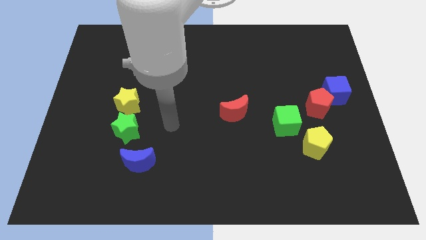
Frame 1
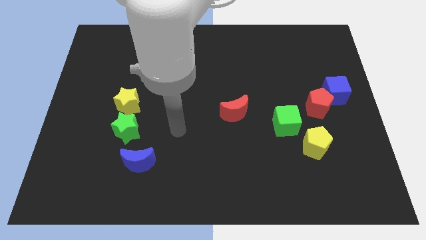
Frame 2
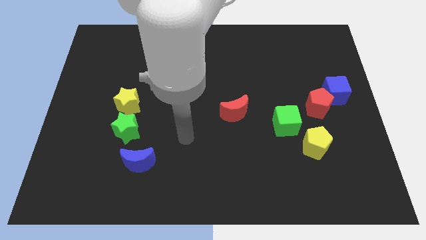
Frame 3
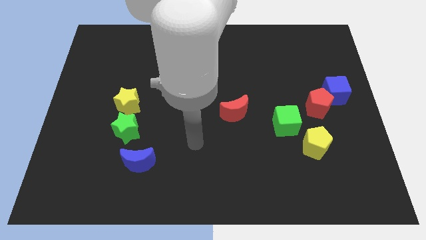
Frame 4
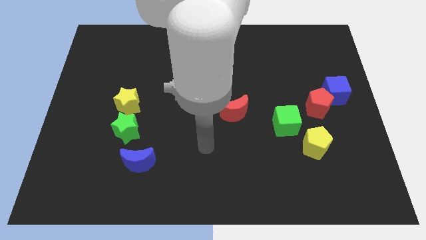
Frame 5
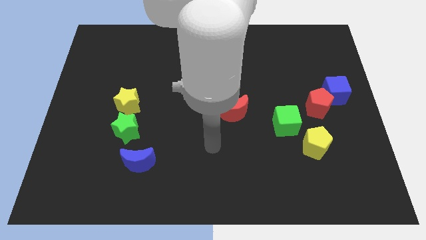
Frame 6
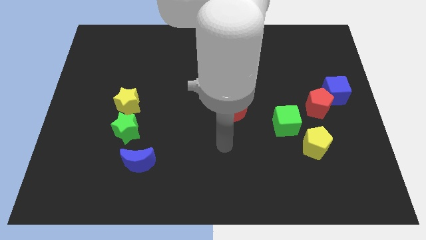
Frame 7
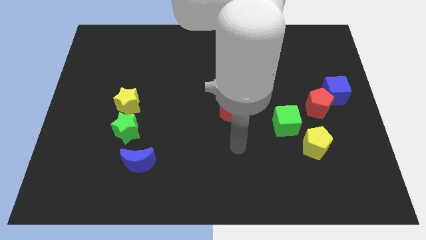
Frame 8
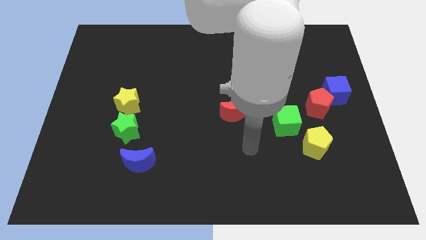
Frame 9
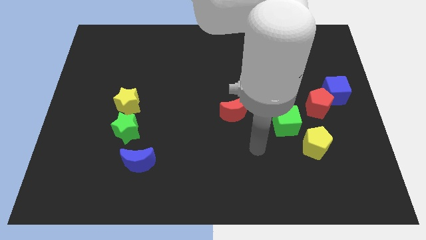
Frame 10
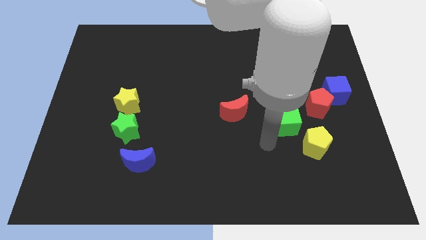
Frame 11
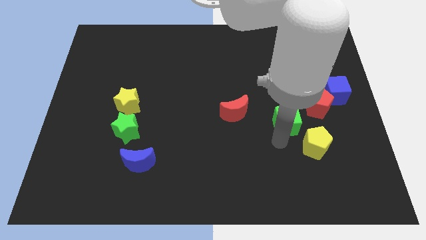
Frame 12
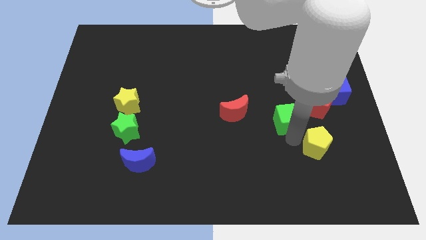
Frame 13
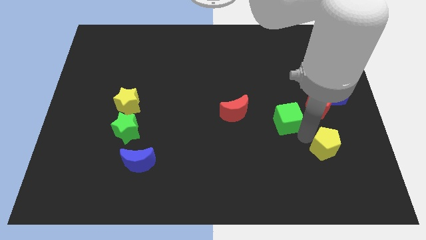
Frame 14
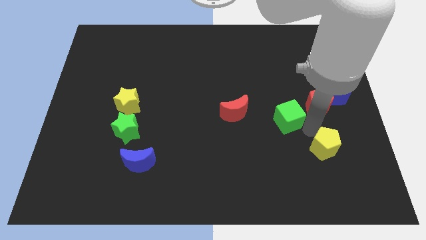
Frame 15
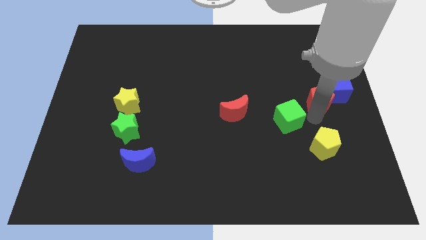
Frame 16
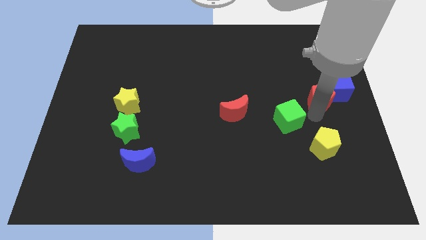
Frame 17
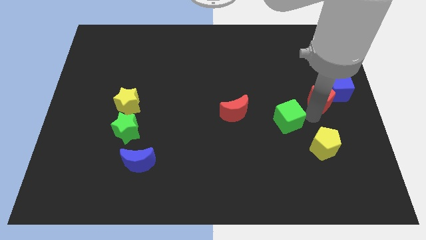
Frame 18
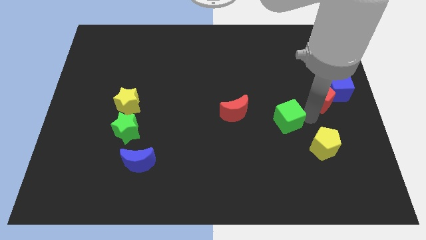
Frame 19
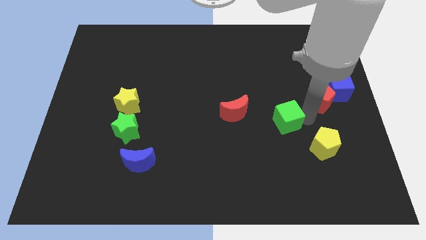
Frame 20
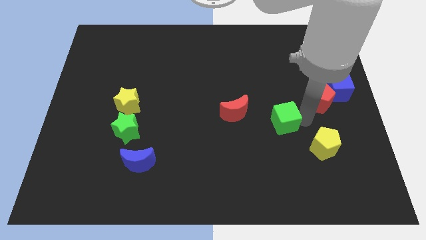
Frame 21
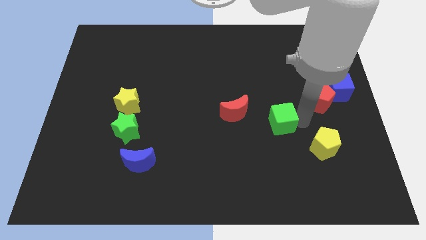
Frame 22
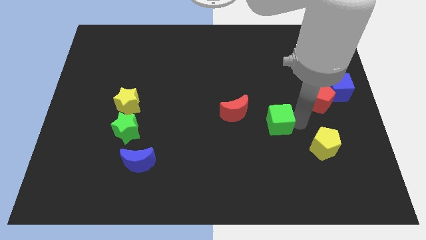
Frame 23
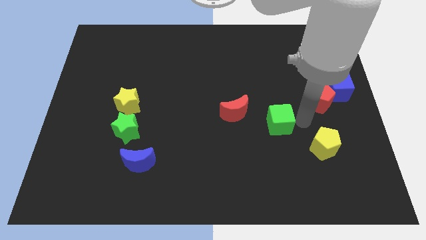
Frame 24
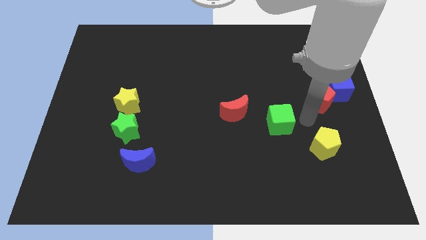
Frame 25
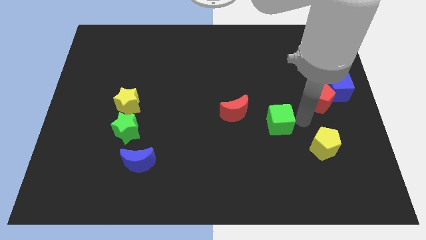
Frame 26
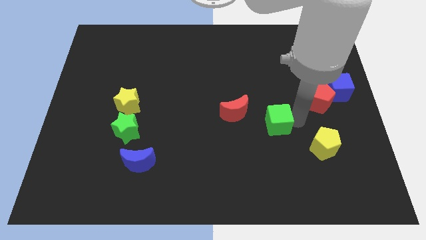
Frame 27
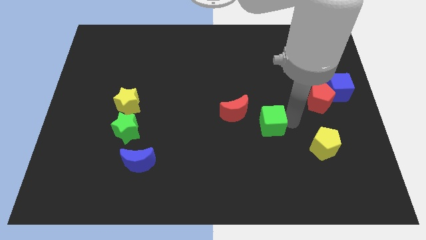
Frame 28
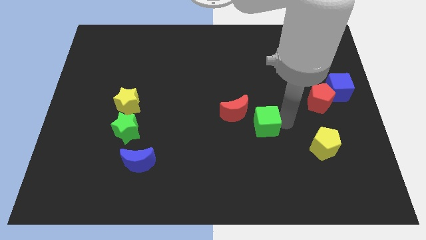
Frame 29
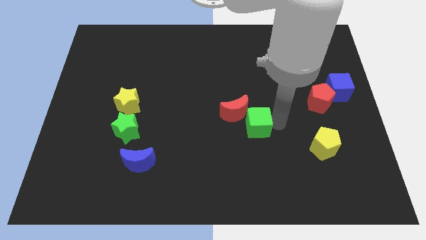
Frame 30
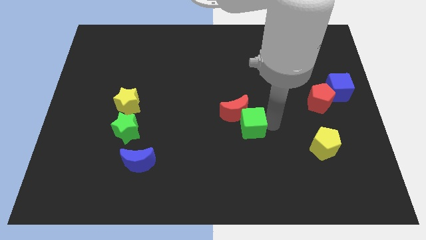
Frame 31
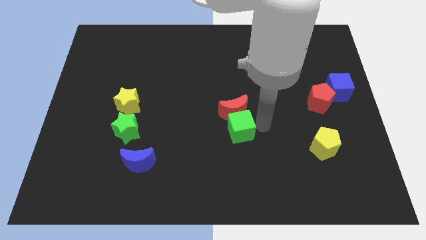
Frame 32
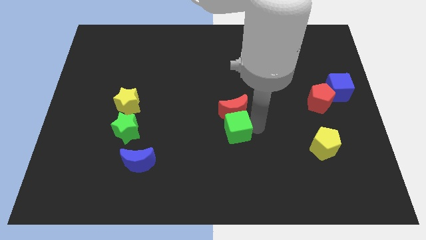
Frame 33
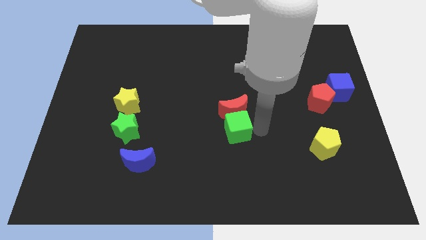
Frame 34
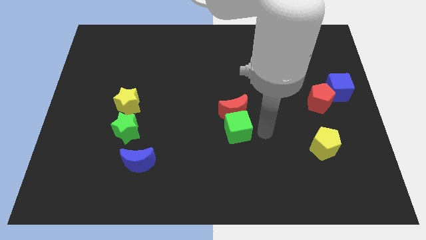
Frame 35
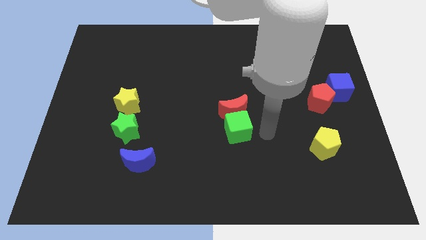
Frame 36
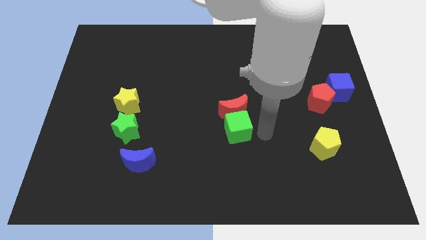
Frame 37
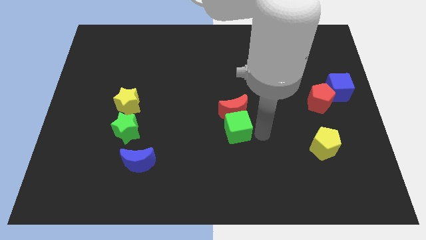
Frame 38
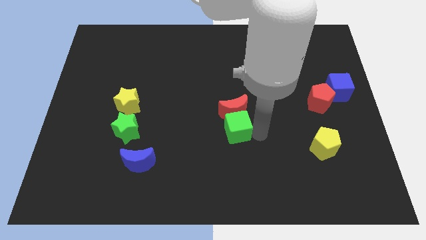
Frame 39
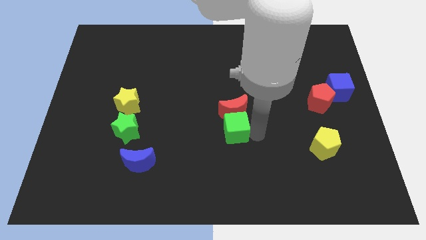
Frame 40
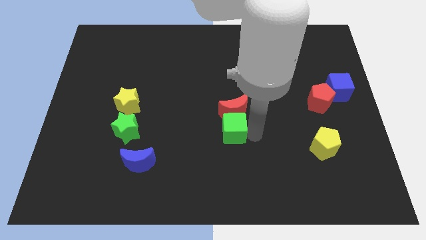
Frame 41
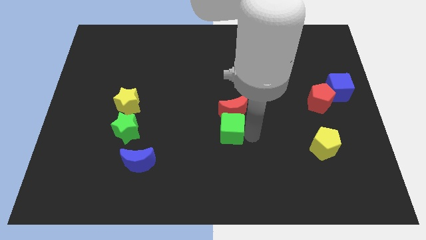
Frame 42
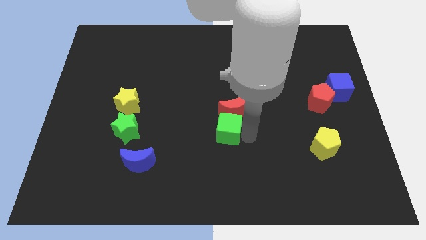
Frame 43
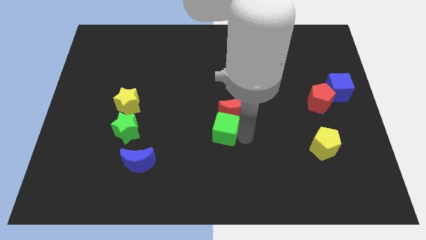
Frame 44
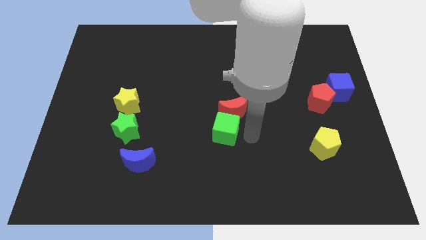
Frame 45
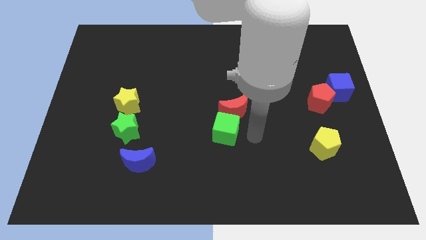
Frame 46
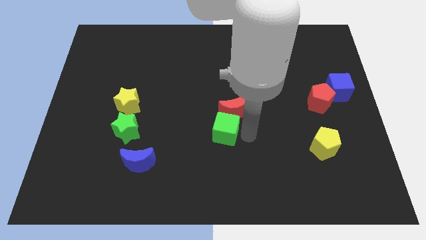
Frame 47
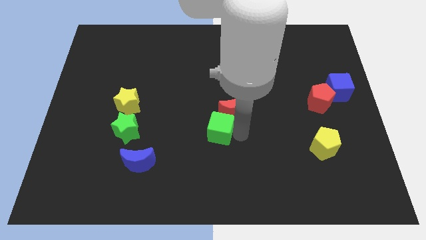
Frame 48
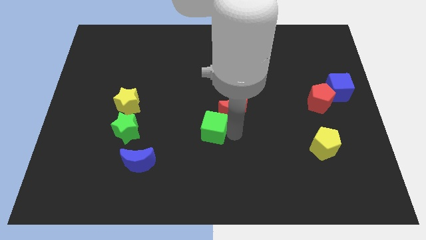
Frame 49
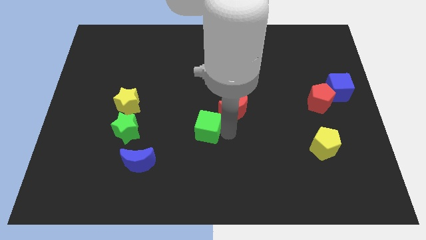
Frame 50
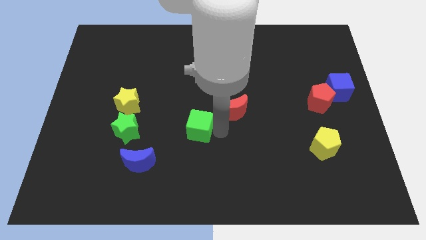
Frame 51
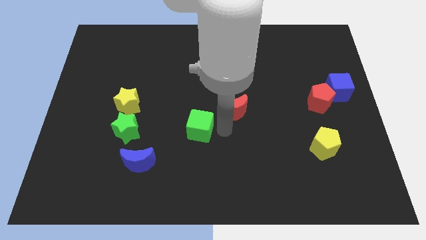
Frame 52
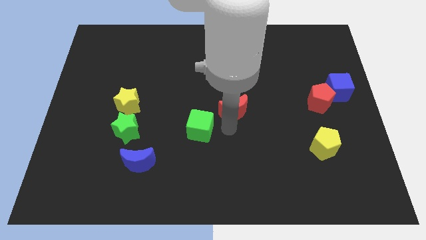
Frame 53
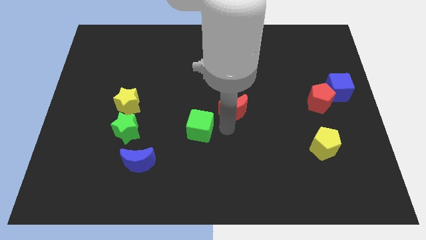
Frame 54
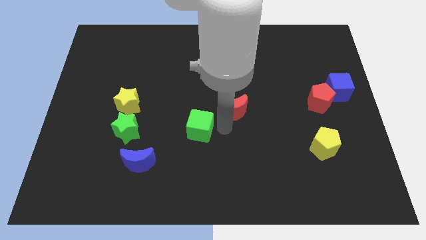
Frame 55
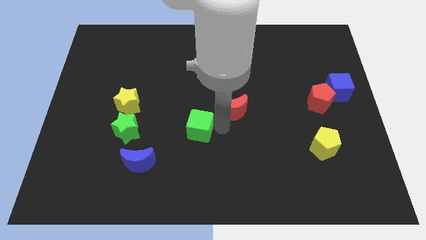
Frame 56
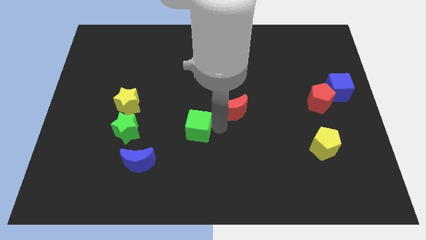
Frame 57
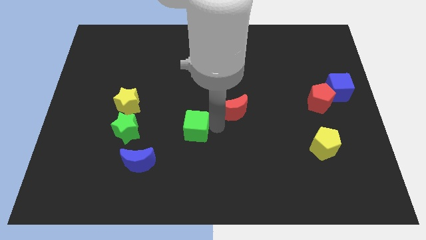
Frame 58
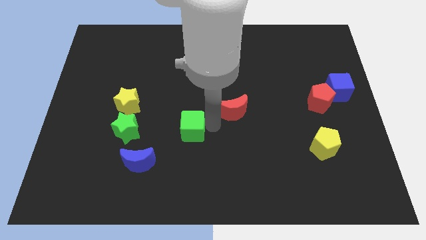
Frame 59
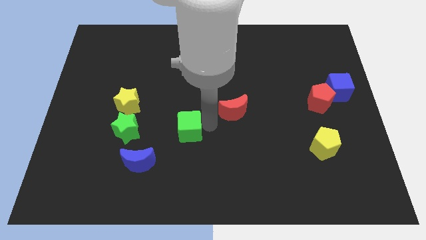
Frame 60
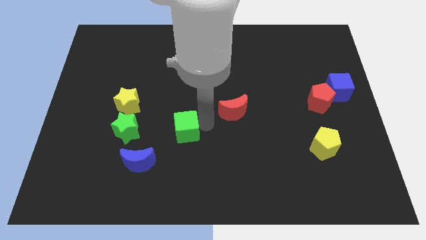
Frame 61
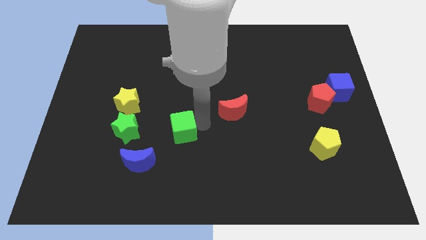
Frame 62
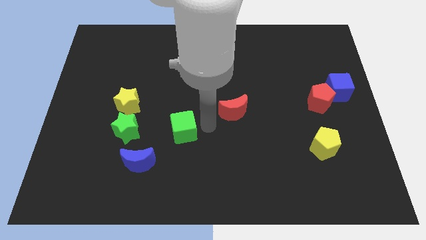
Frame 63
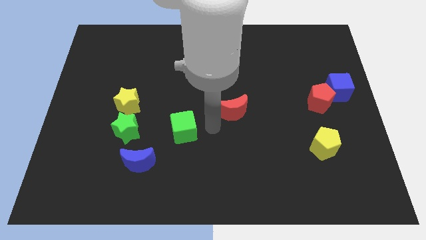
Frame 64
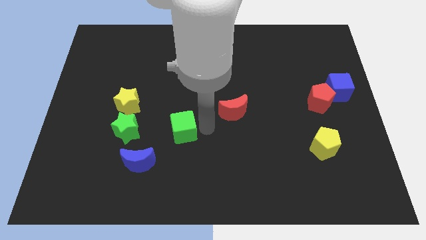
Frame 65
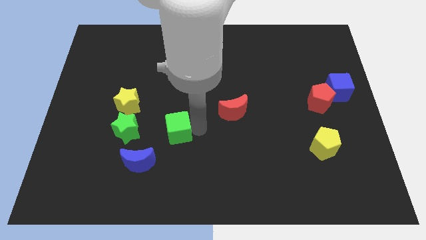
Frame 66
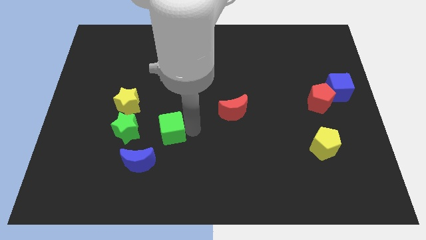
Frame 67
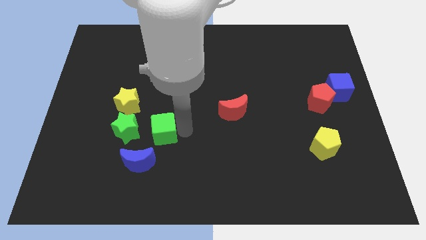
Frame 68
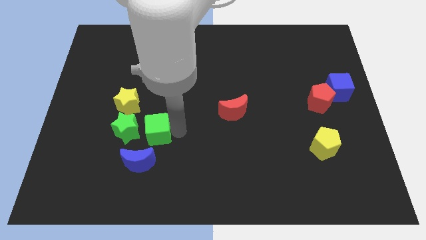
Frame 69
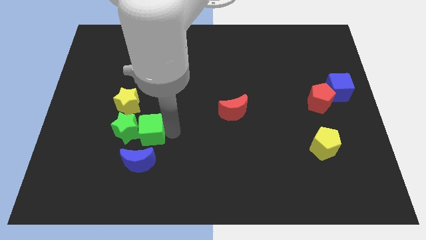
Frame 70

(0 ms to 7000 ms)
push the green cube to the green star

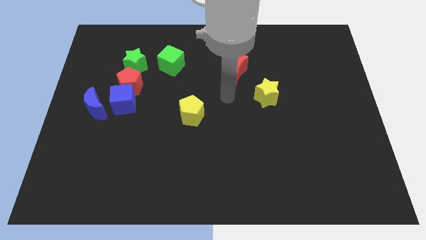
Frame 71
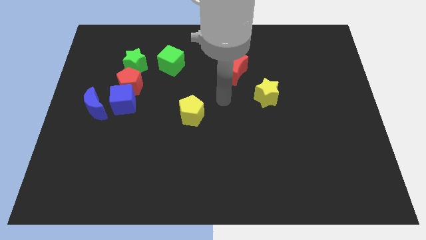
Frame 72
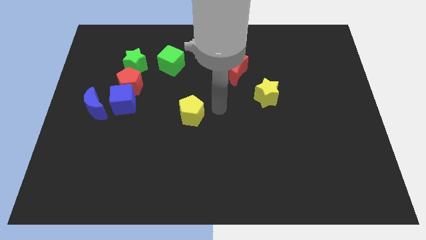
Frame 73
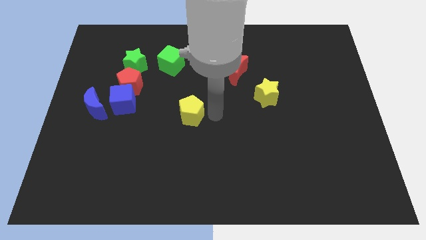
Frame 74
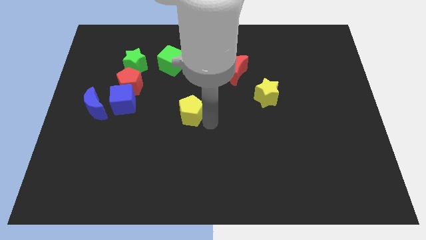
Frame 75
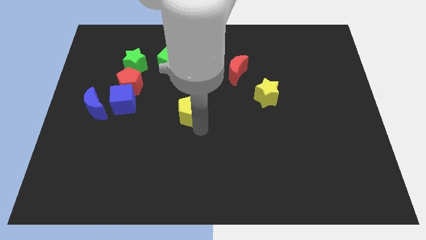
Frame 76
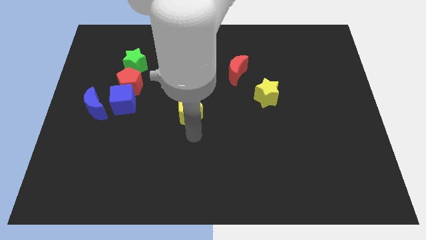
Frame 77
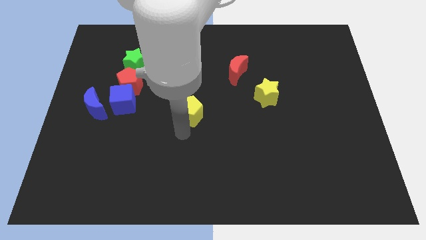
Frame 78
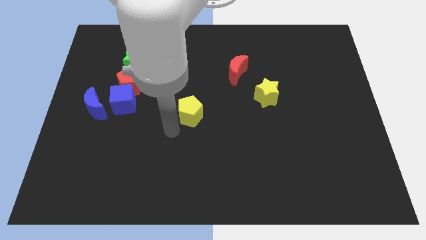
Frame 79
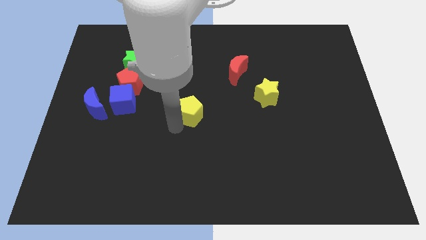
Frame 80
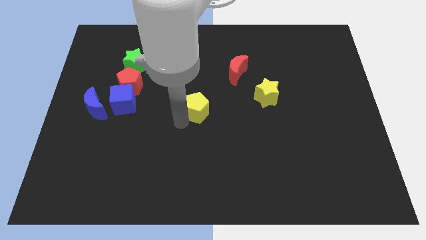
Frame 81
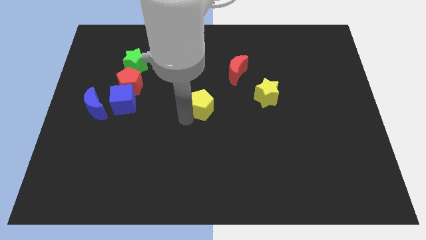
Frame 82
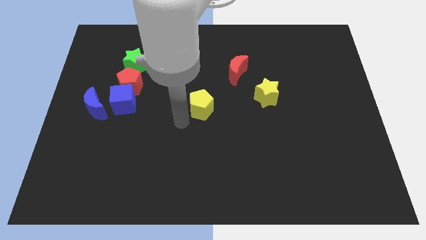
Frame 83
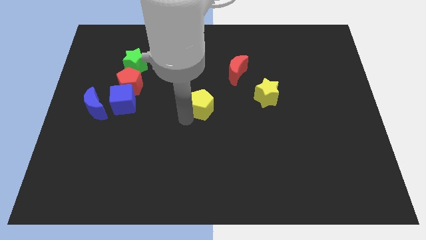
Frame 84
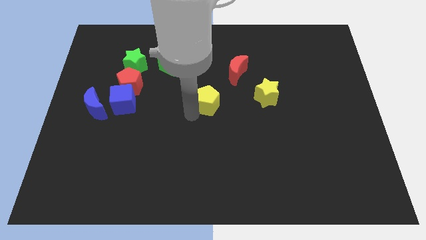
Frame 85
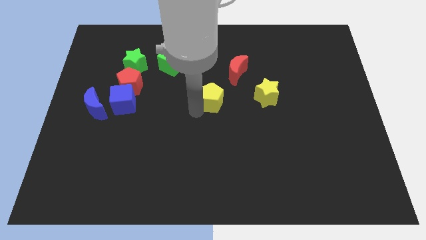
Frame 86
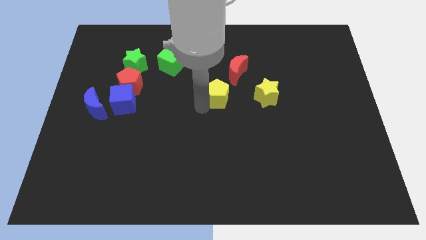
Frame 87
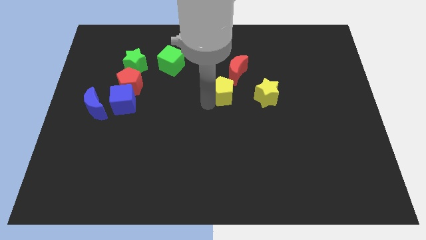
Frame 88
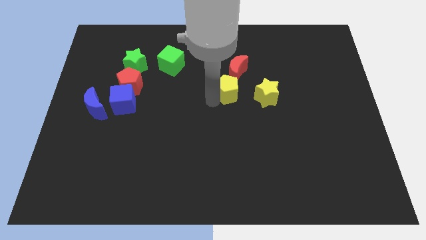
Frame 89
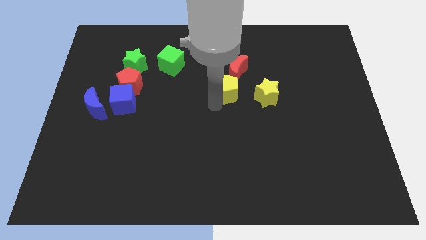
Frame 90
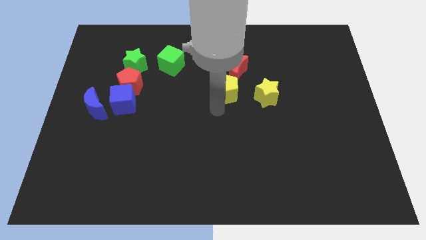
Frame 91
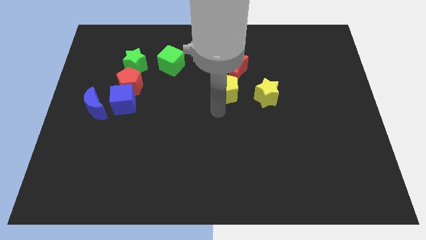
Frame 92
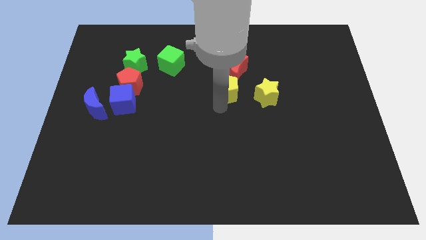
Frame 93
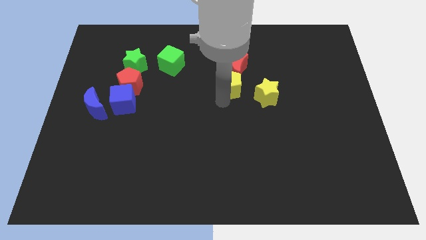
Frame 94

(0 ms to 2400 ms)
push the yellow pentagon next to the red moon
